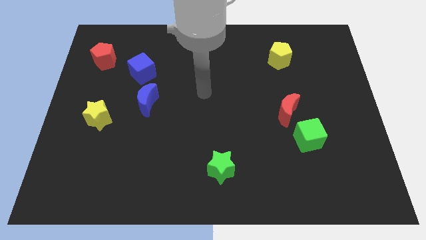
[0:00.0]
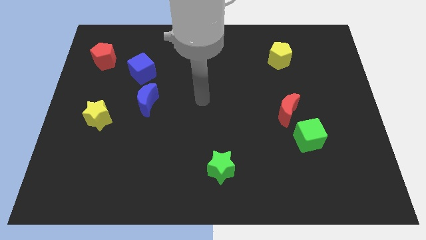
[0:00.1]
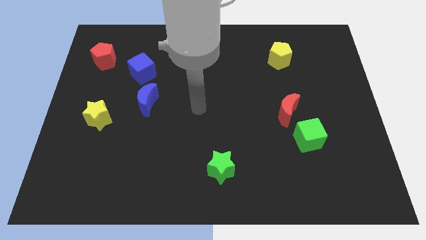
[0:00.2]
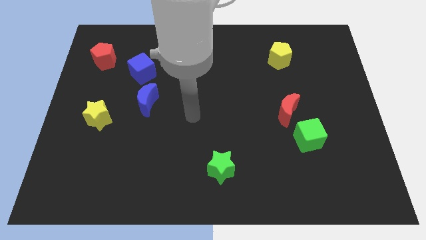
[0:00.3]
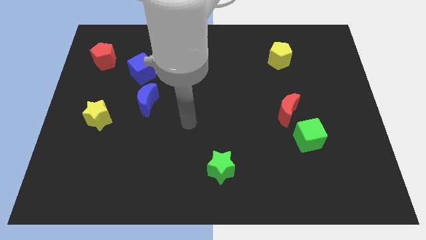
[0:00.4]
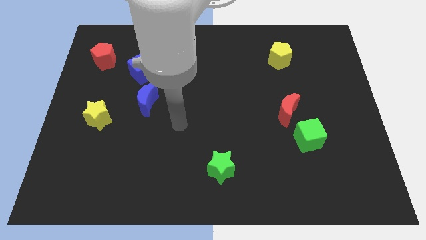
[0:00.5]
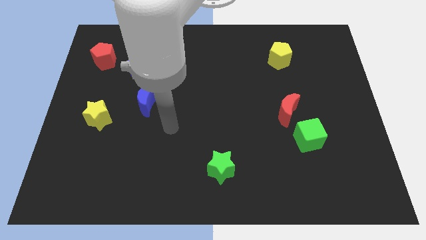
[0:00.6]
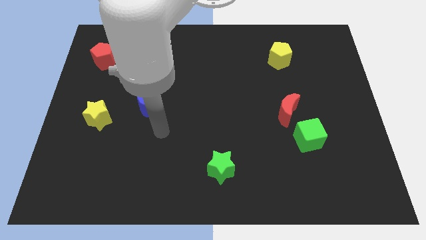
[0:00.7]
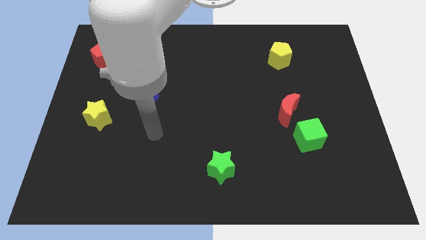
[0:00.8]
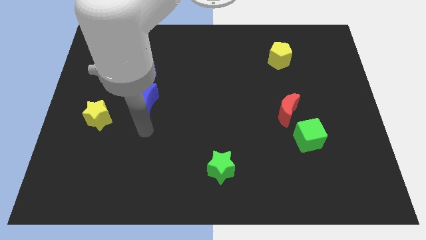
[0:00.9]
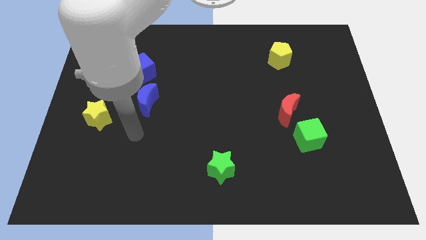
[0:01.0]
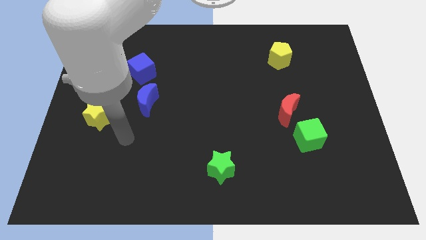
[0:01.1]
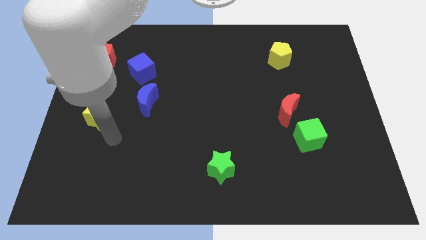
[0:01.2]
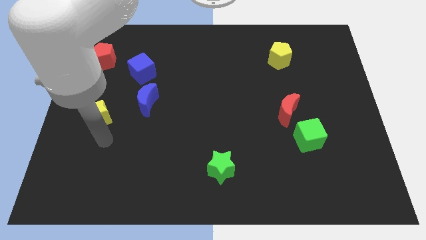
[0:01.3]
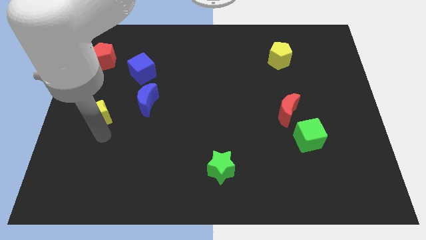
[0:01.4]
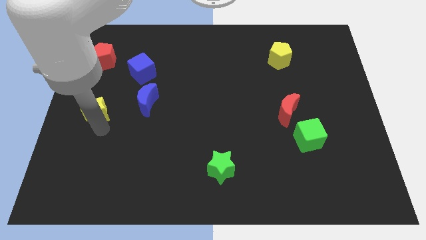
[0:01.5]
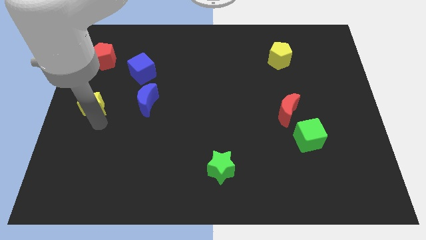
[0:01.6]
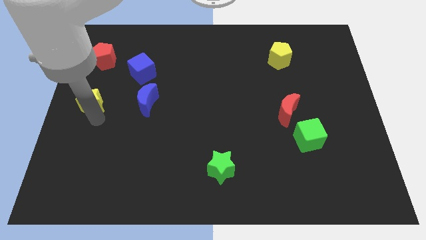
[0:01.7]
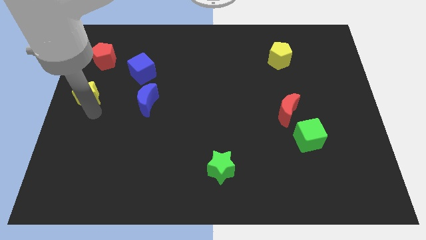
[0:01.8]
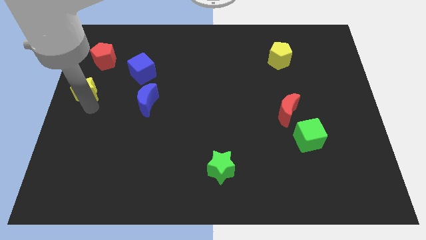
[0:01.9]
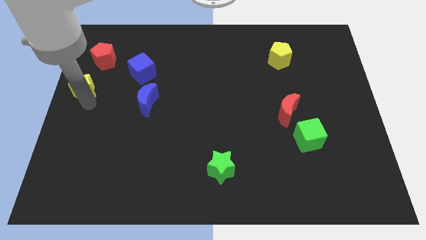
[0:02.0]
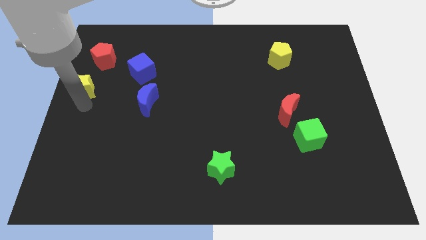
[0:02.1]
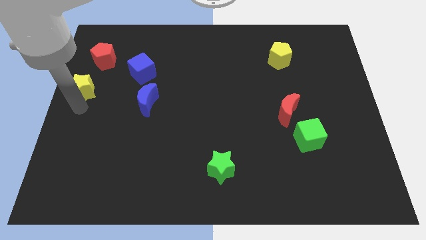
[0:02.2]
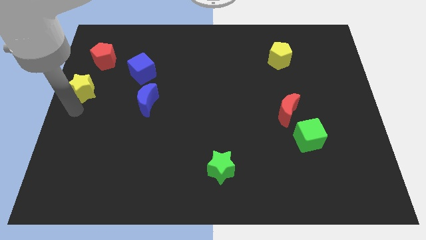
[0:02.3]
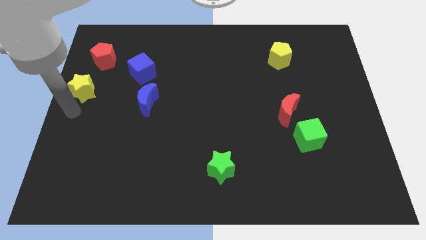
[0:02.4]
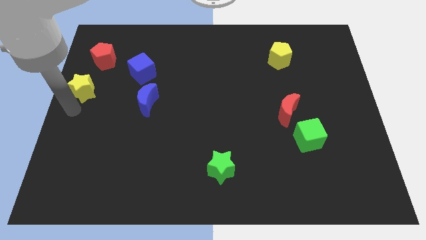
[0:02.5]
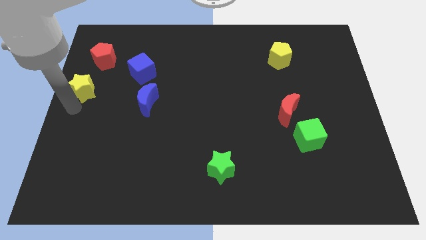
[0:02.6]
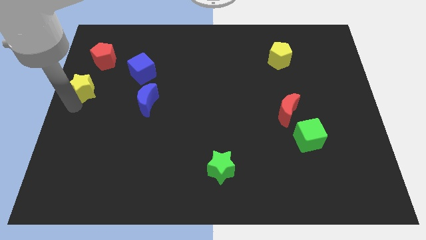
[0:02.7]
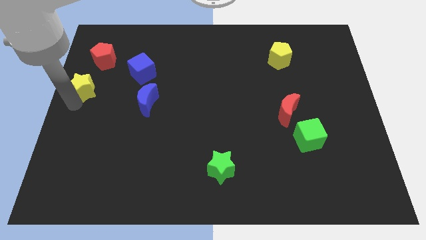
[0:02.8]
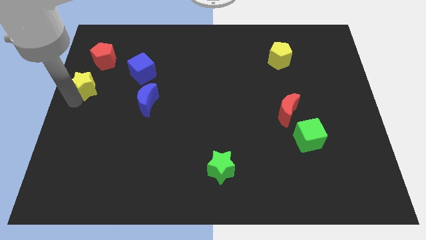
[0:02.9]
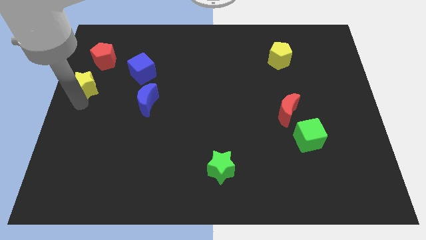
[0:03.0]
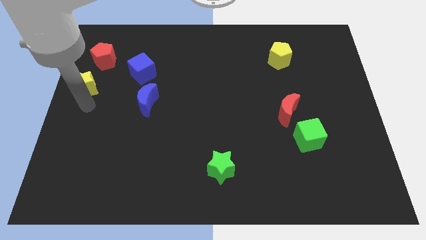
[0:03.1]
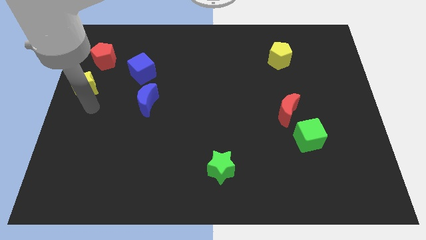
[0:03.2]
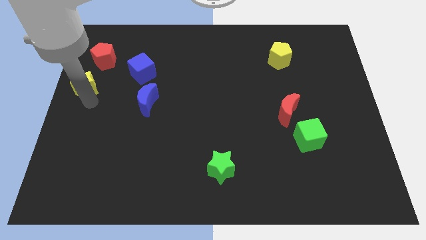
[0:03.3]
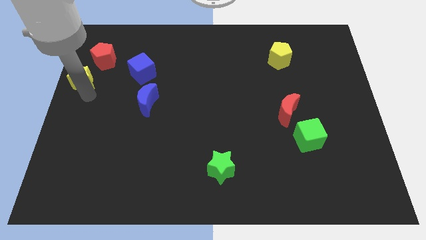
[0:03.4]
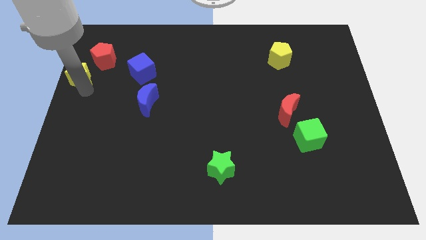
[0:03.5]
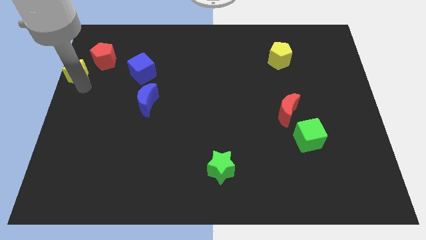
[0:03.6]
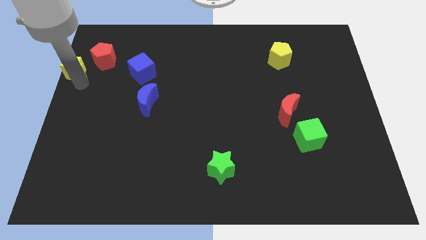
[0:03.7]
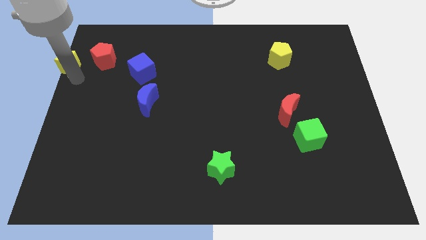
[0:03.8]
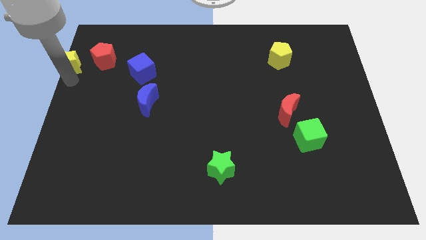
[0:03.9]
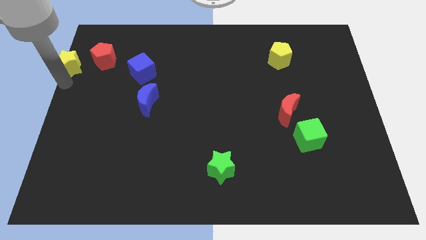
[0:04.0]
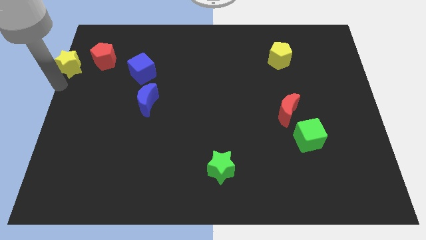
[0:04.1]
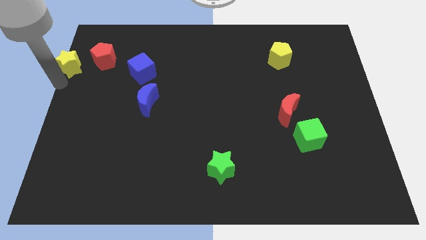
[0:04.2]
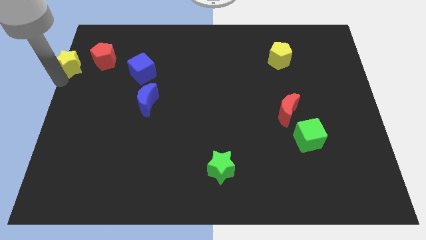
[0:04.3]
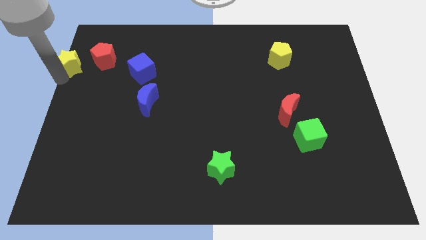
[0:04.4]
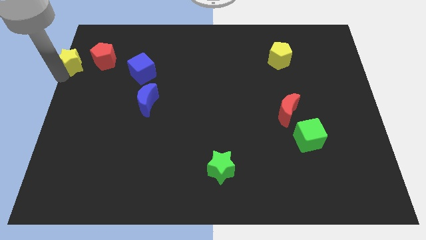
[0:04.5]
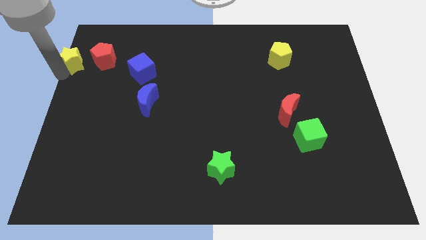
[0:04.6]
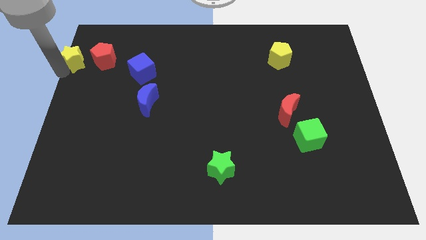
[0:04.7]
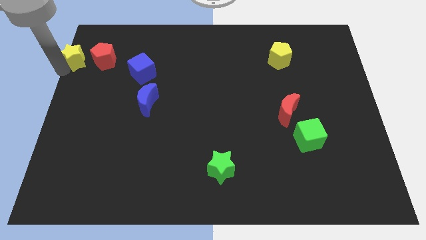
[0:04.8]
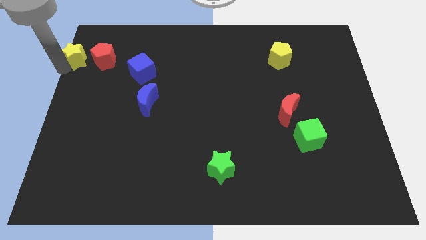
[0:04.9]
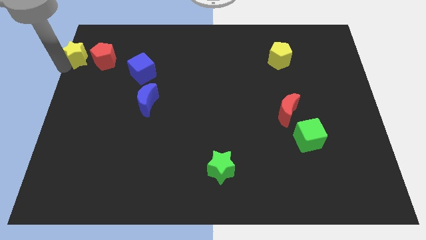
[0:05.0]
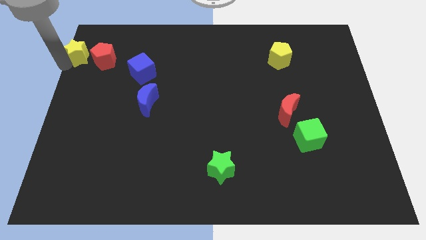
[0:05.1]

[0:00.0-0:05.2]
slide the yellow star to the top left of the board

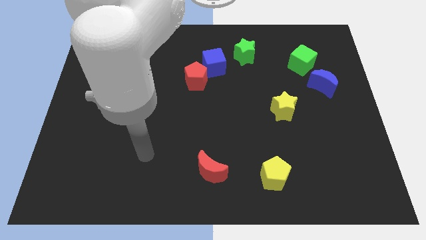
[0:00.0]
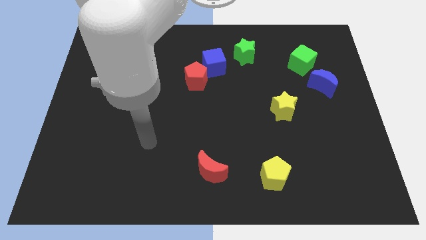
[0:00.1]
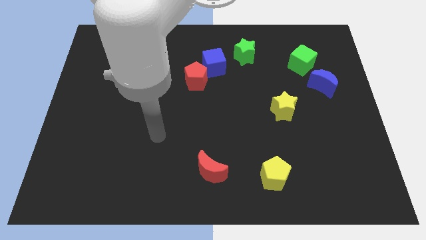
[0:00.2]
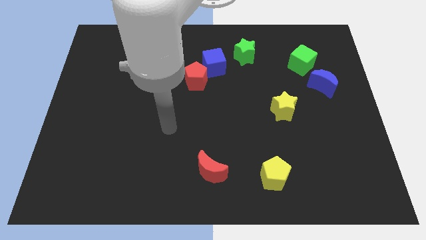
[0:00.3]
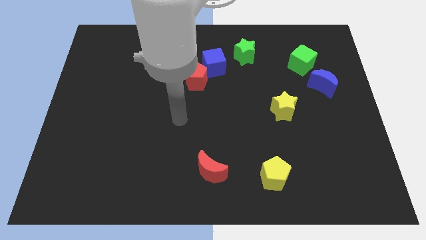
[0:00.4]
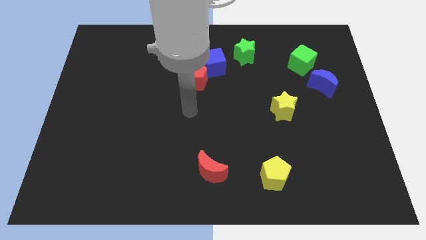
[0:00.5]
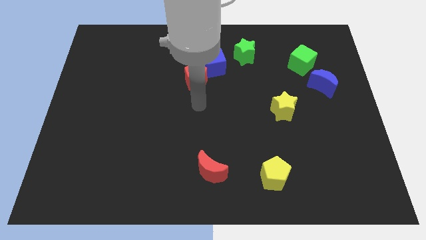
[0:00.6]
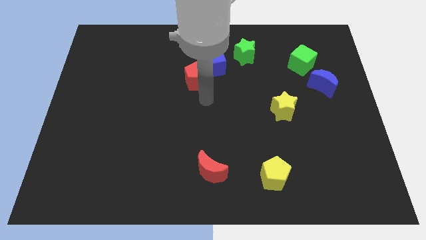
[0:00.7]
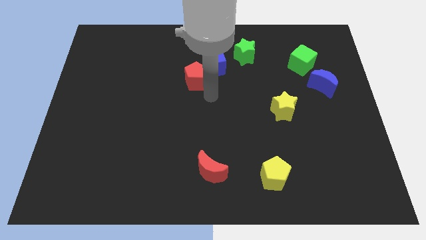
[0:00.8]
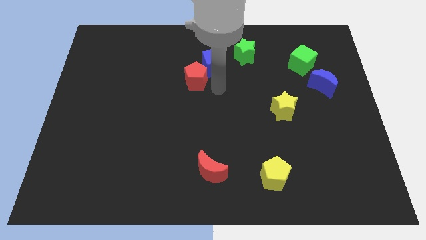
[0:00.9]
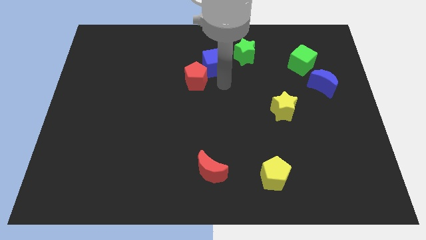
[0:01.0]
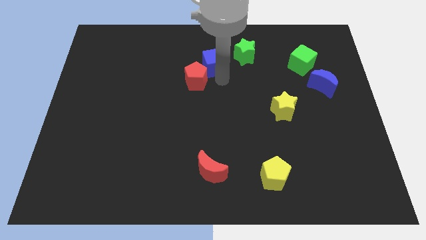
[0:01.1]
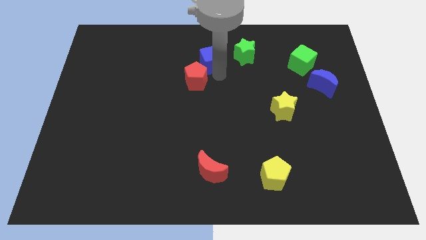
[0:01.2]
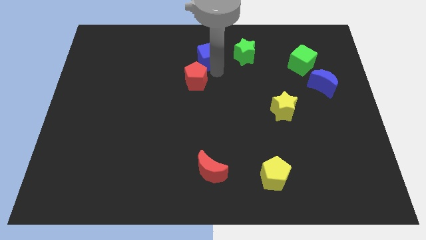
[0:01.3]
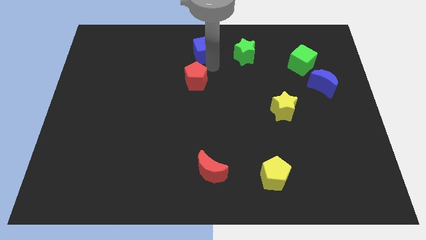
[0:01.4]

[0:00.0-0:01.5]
slide the blue cube to the towards your base
